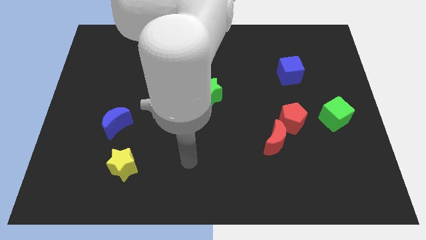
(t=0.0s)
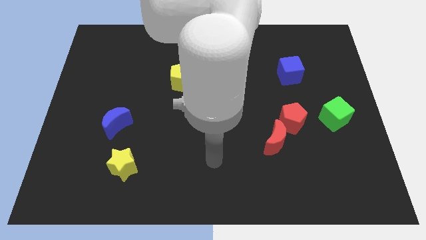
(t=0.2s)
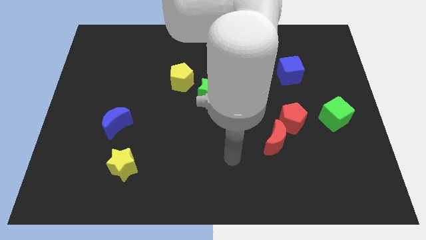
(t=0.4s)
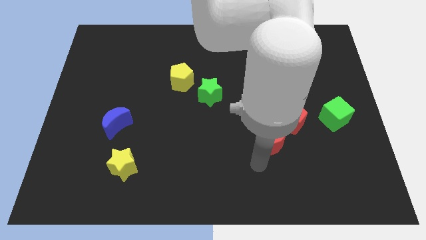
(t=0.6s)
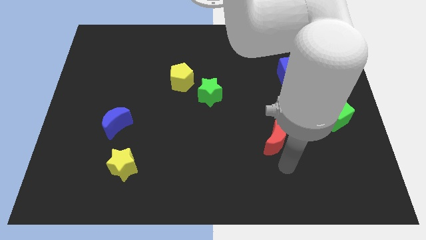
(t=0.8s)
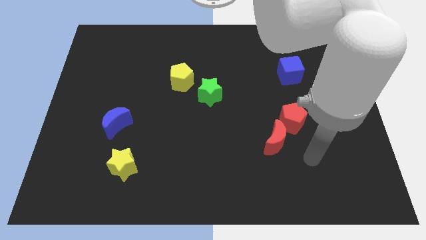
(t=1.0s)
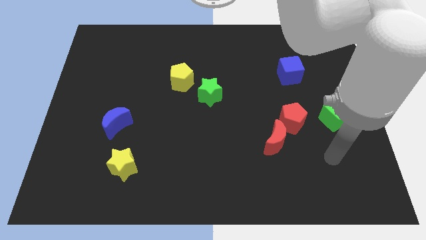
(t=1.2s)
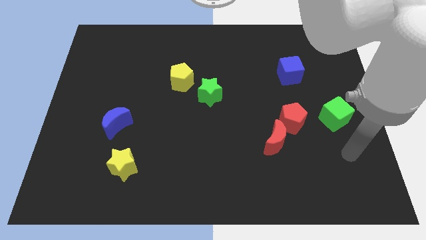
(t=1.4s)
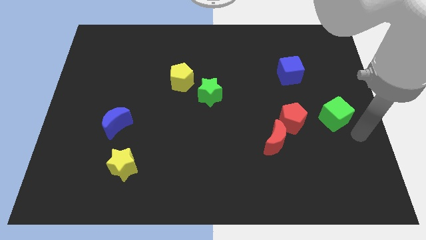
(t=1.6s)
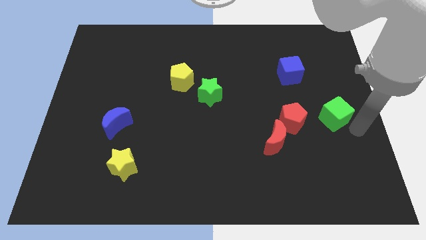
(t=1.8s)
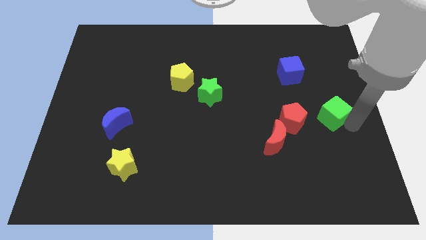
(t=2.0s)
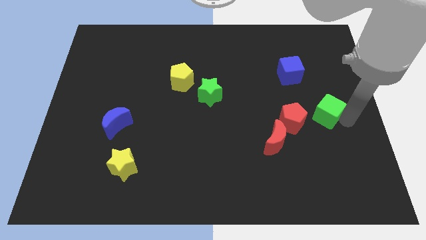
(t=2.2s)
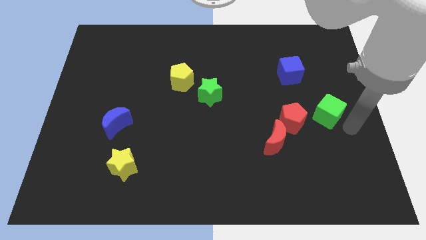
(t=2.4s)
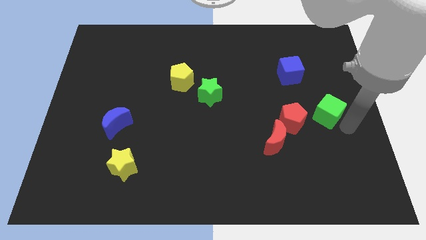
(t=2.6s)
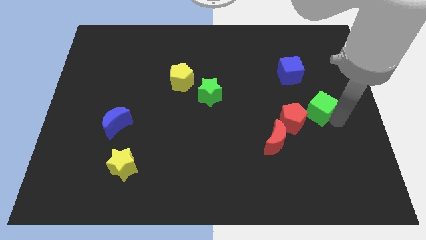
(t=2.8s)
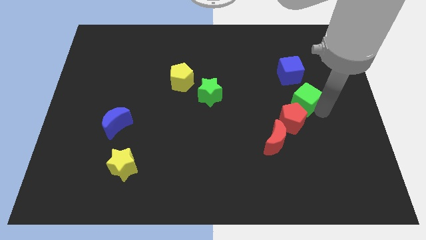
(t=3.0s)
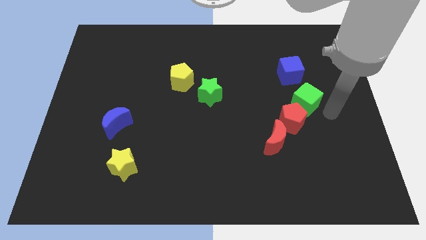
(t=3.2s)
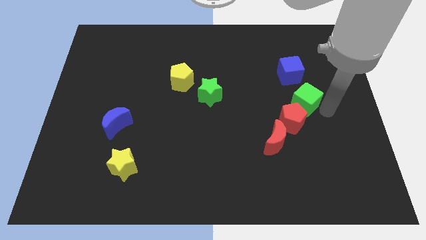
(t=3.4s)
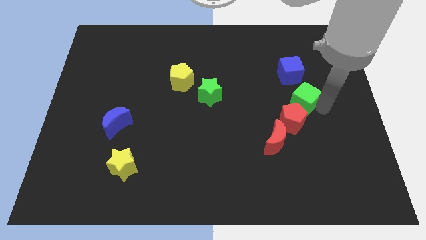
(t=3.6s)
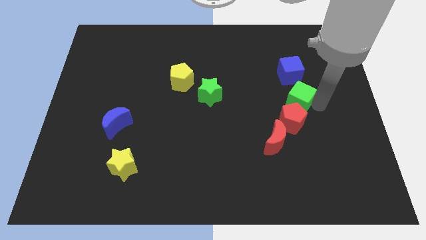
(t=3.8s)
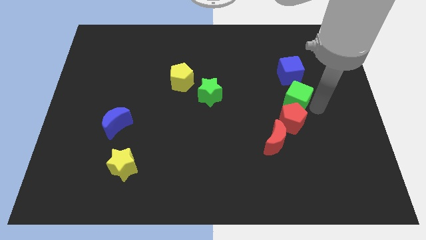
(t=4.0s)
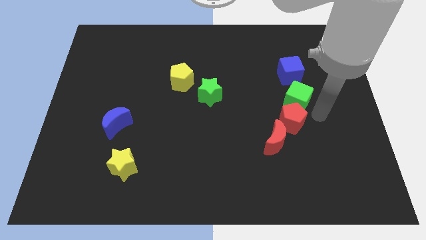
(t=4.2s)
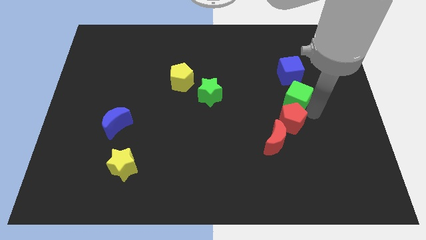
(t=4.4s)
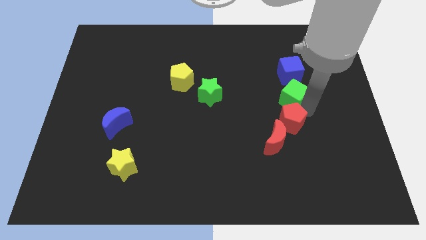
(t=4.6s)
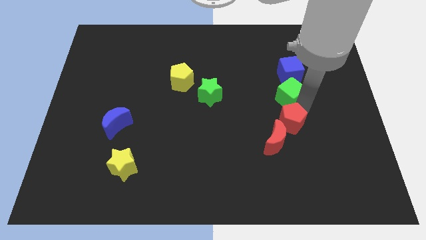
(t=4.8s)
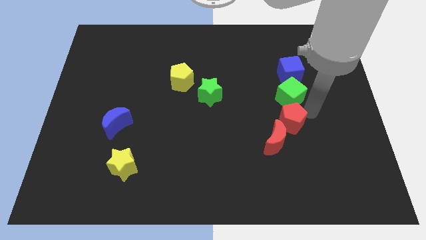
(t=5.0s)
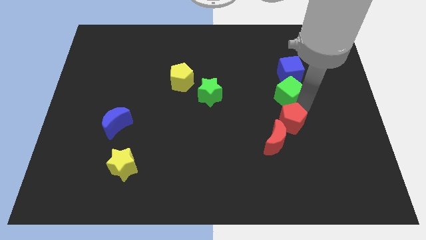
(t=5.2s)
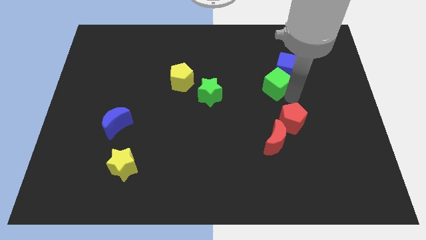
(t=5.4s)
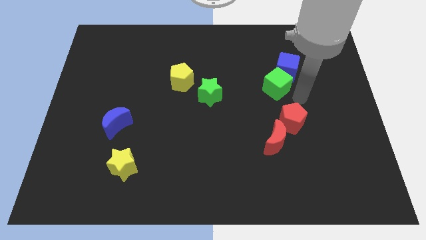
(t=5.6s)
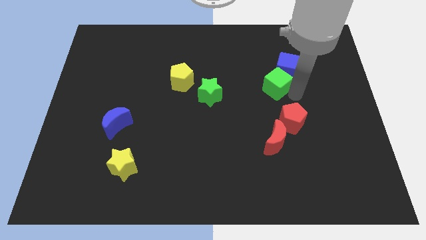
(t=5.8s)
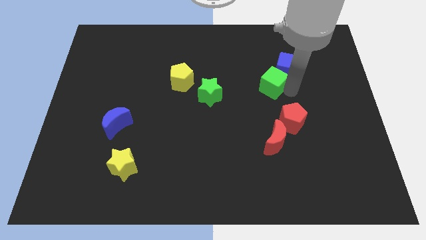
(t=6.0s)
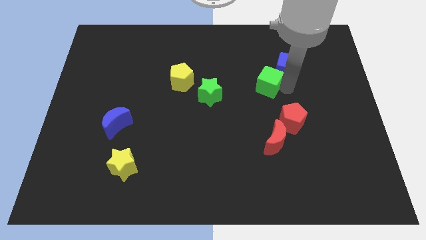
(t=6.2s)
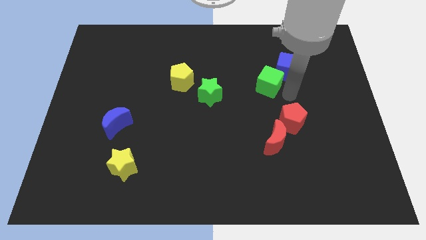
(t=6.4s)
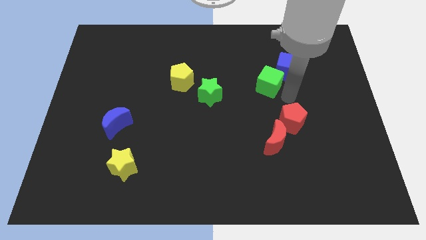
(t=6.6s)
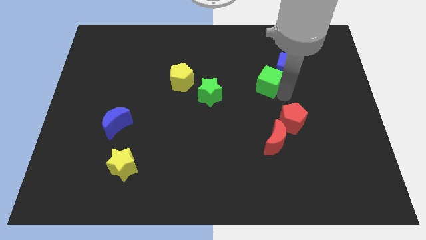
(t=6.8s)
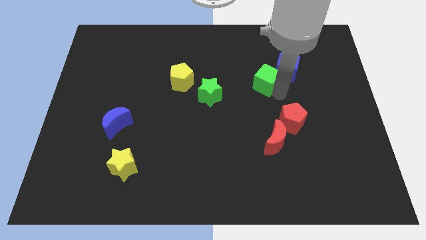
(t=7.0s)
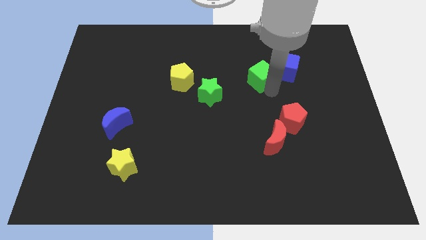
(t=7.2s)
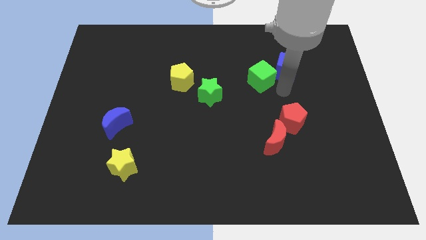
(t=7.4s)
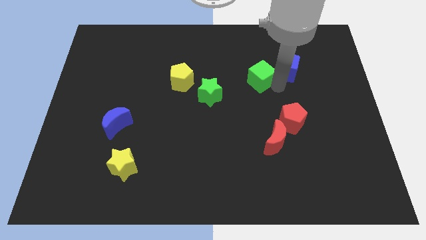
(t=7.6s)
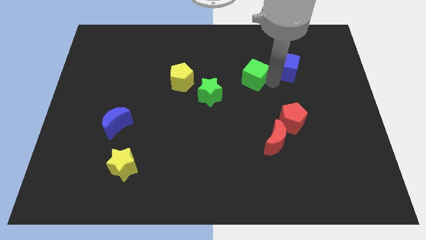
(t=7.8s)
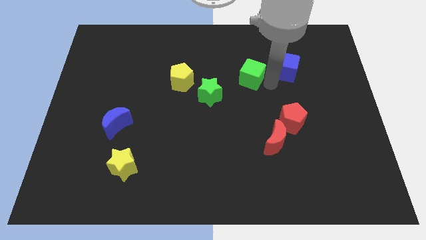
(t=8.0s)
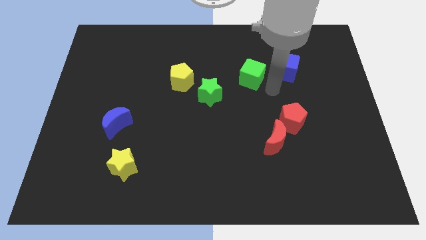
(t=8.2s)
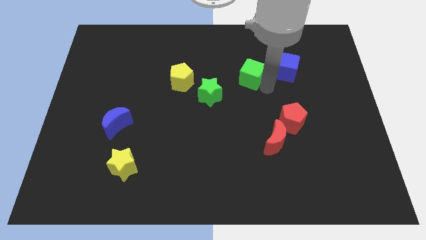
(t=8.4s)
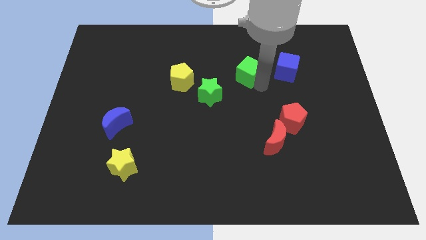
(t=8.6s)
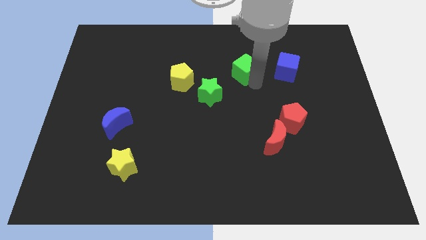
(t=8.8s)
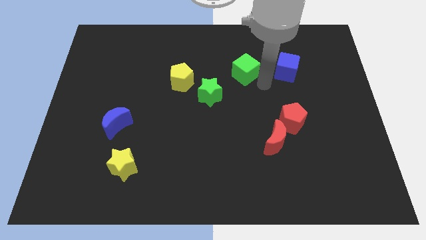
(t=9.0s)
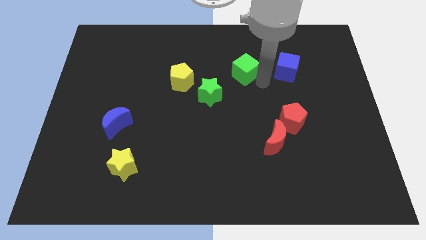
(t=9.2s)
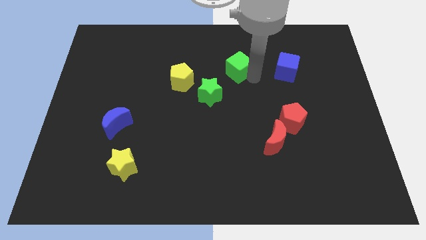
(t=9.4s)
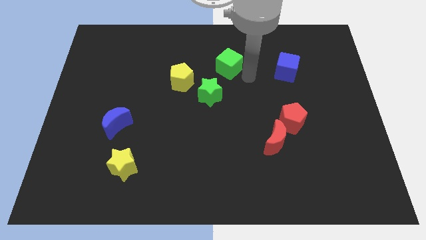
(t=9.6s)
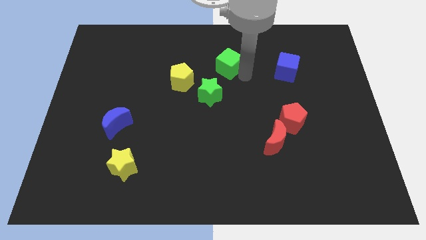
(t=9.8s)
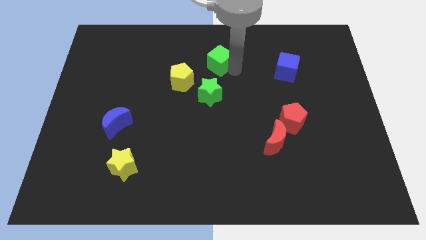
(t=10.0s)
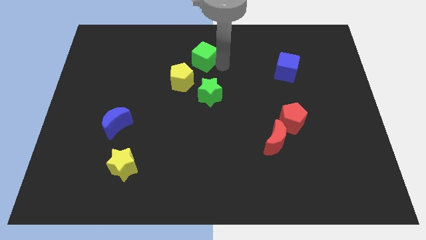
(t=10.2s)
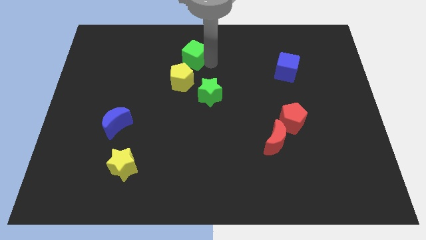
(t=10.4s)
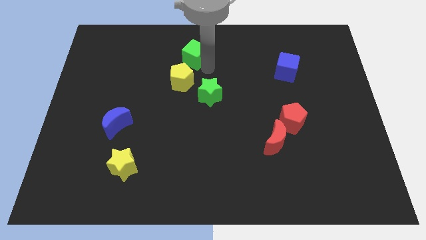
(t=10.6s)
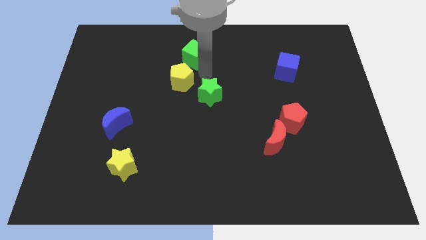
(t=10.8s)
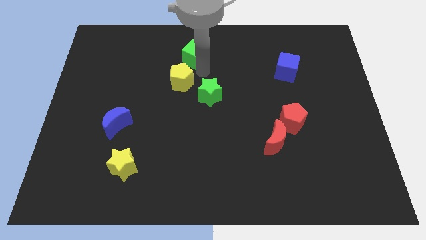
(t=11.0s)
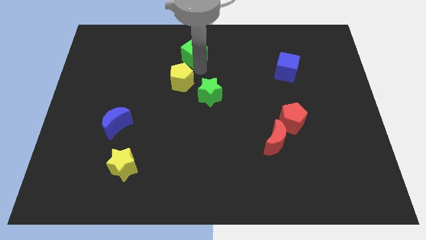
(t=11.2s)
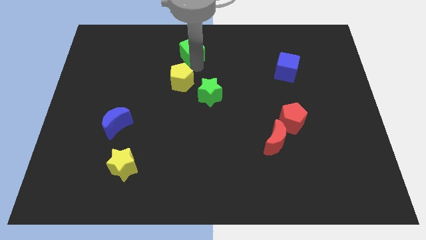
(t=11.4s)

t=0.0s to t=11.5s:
move the green cube to the top
